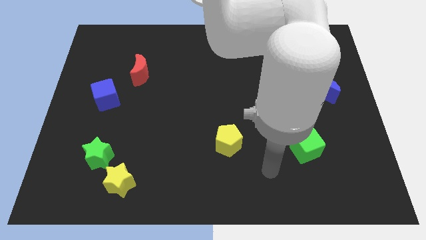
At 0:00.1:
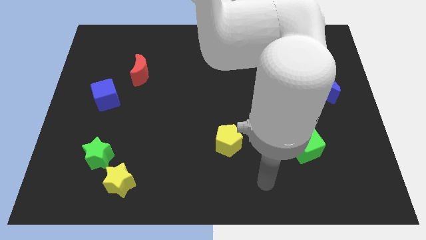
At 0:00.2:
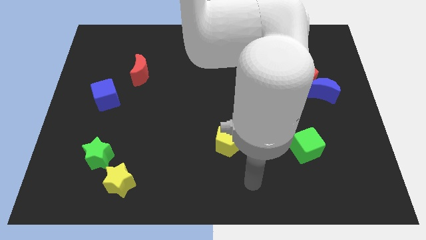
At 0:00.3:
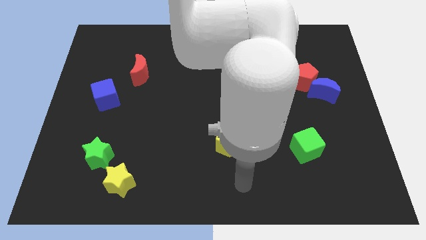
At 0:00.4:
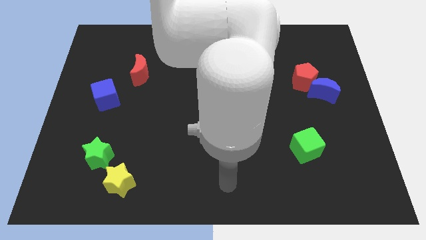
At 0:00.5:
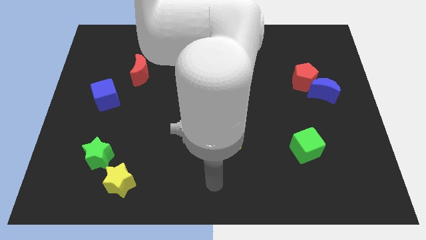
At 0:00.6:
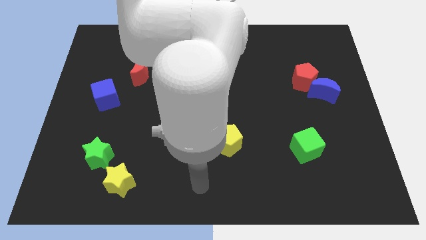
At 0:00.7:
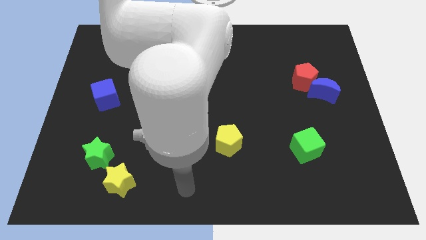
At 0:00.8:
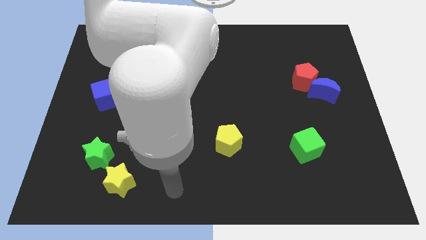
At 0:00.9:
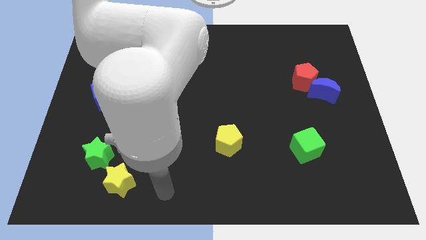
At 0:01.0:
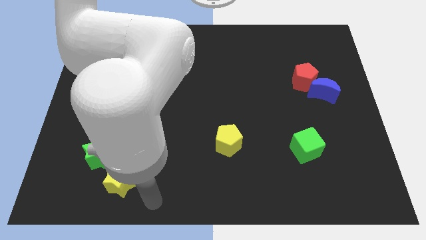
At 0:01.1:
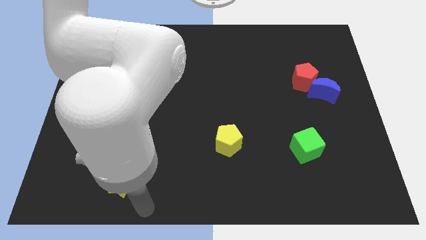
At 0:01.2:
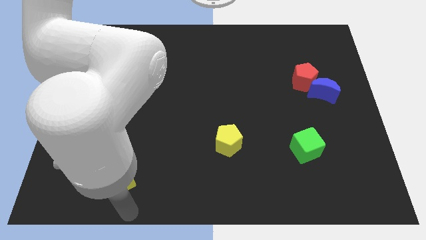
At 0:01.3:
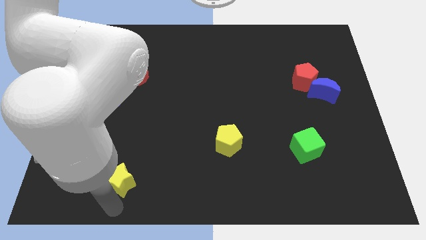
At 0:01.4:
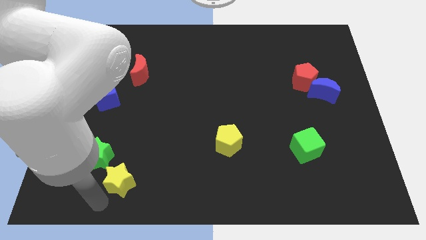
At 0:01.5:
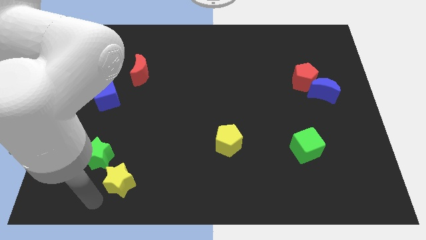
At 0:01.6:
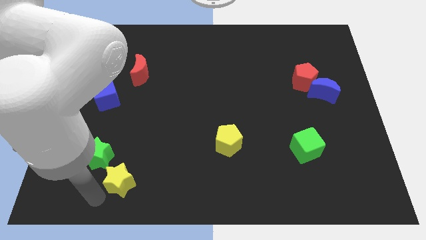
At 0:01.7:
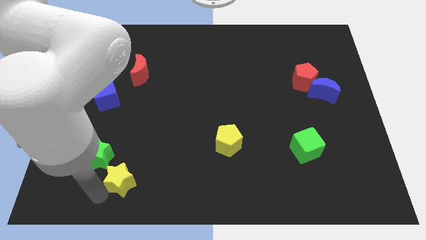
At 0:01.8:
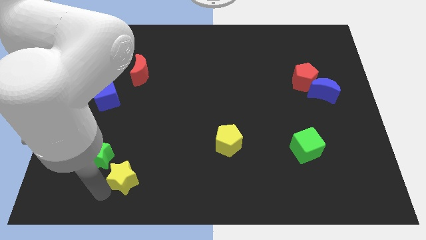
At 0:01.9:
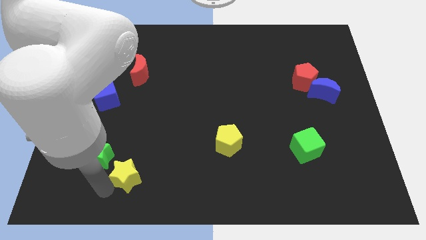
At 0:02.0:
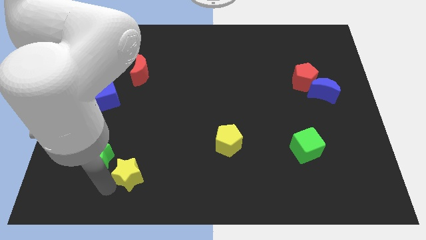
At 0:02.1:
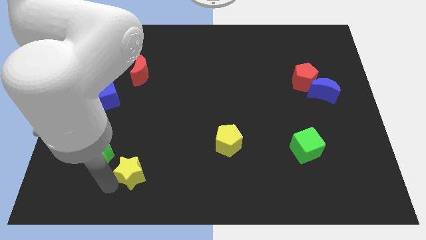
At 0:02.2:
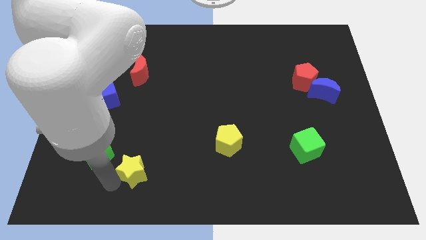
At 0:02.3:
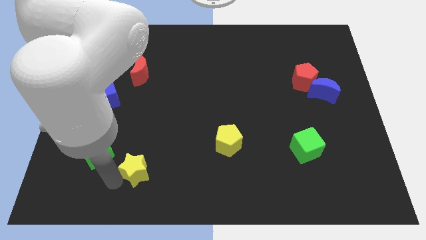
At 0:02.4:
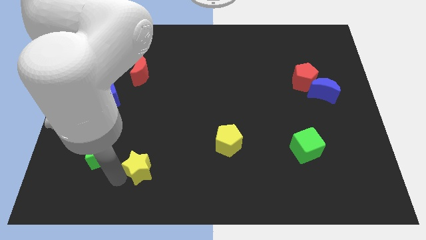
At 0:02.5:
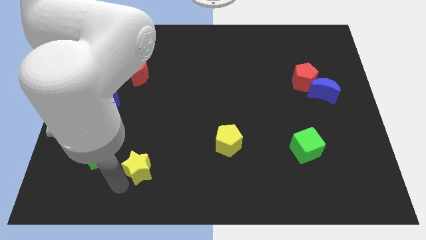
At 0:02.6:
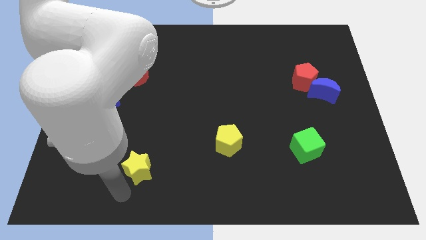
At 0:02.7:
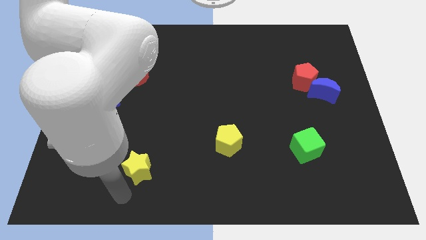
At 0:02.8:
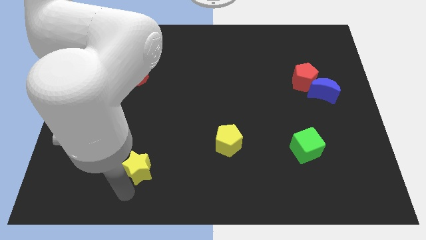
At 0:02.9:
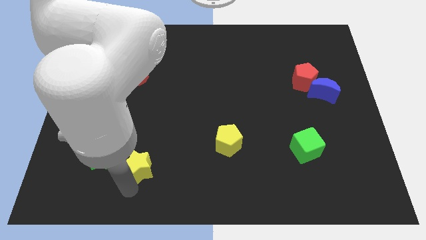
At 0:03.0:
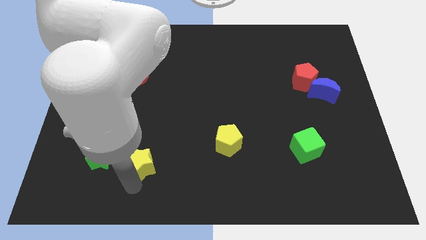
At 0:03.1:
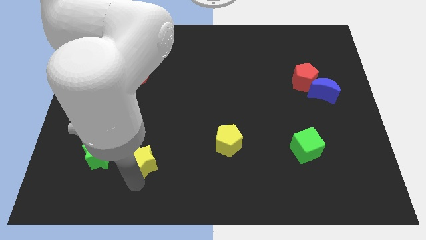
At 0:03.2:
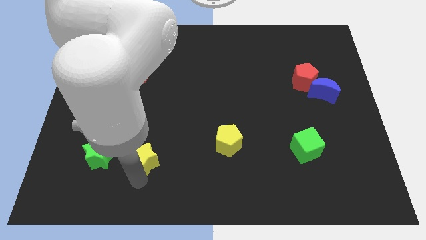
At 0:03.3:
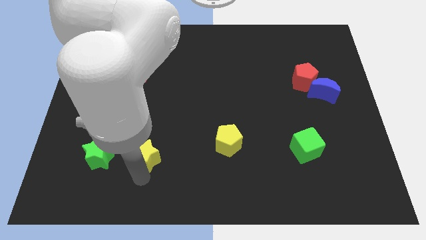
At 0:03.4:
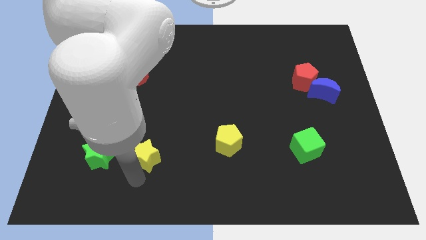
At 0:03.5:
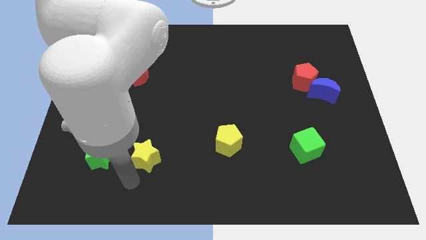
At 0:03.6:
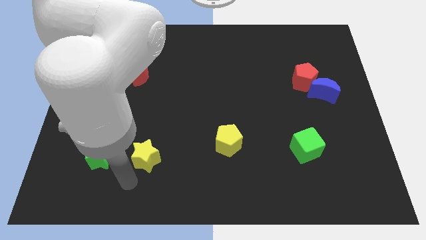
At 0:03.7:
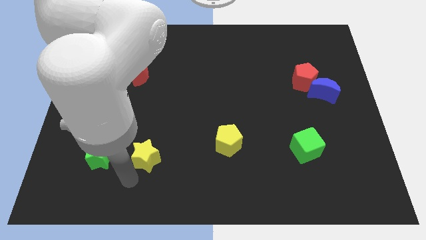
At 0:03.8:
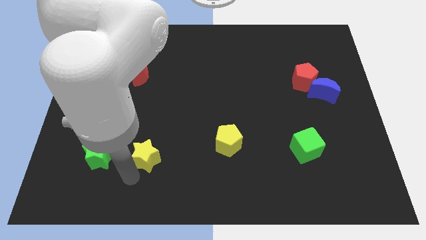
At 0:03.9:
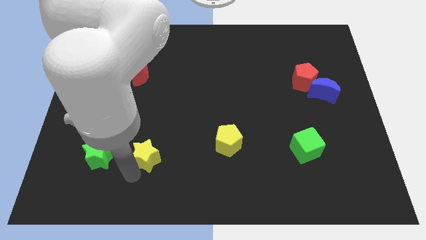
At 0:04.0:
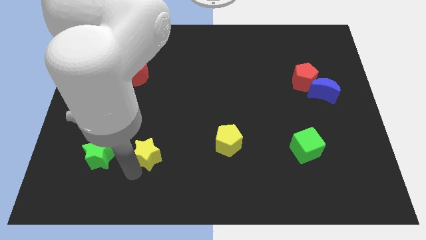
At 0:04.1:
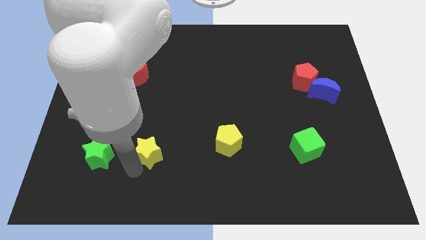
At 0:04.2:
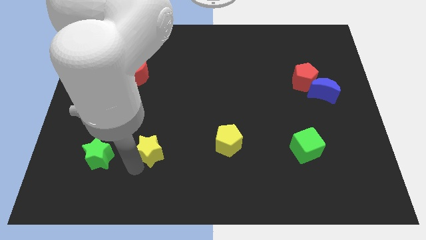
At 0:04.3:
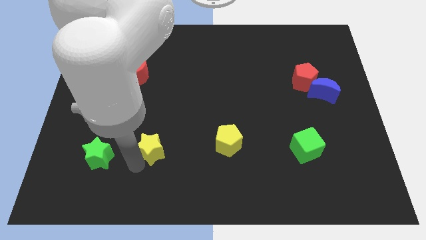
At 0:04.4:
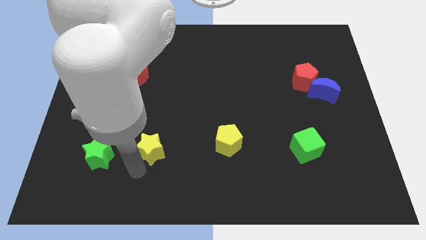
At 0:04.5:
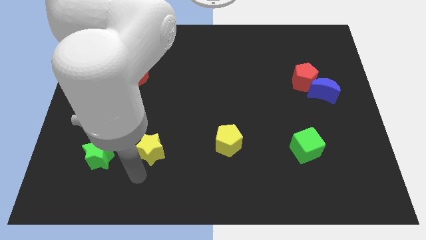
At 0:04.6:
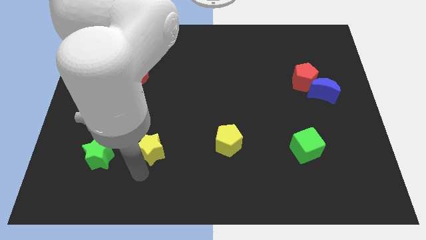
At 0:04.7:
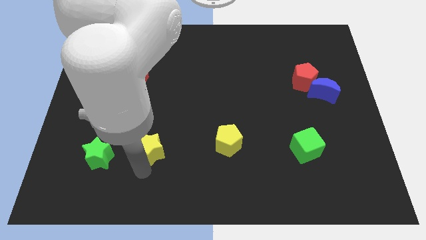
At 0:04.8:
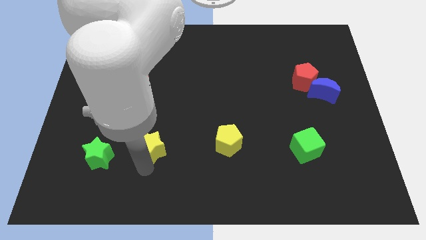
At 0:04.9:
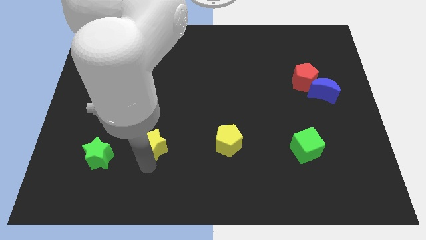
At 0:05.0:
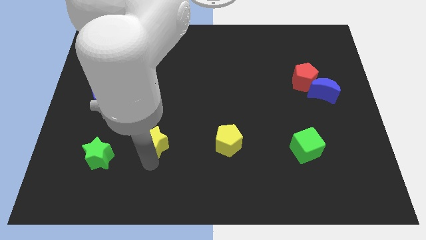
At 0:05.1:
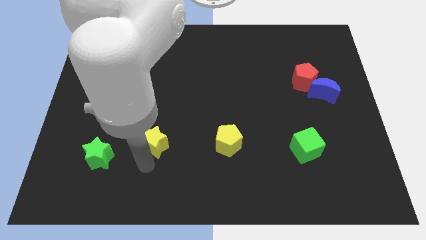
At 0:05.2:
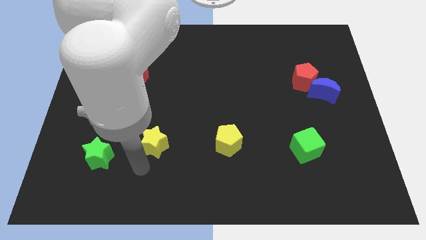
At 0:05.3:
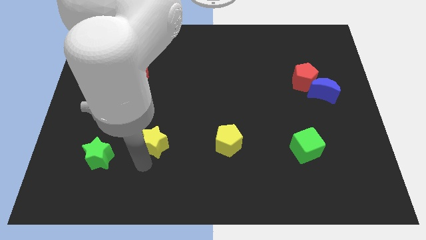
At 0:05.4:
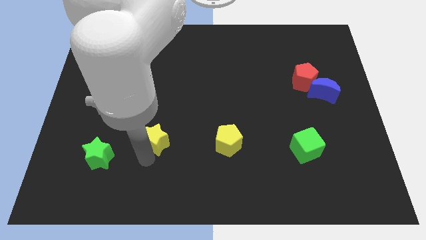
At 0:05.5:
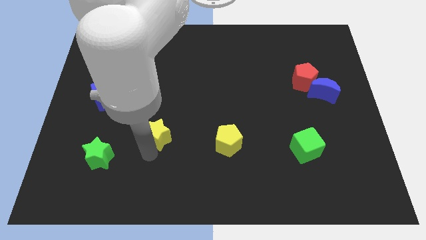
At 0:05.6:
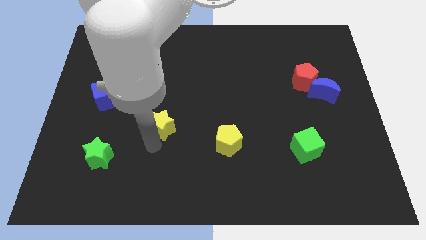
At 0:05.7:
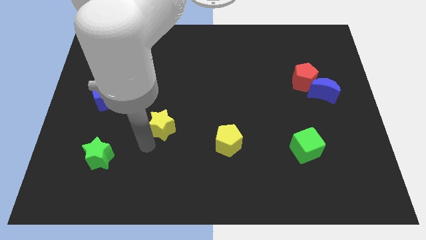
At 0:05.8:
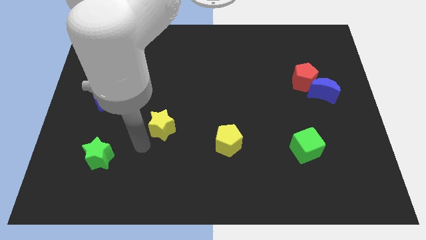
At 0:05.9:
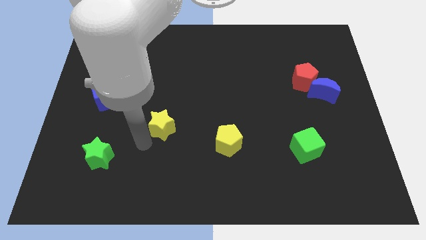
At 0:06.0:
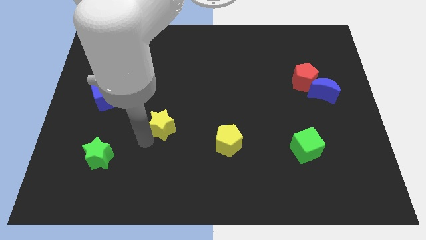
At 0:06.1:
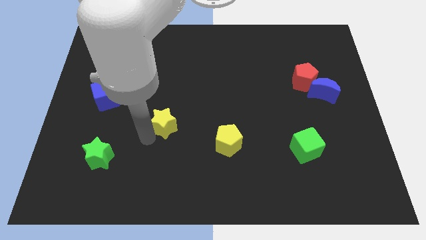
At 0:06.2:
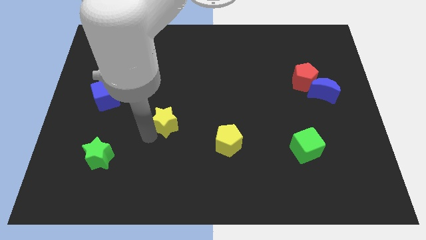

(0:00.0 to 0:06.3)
slide the yellow star to the center
